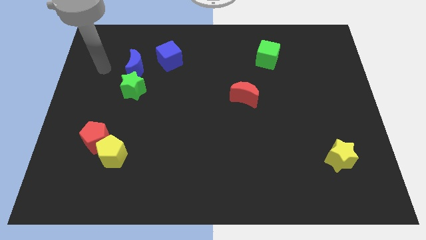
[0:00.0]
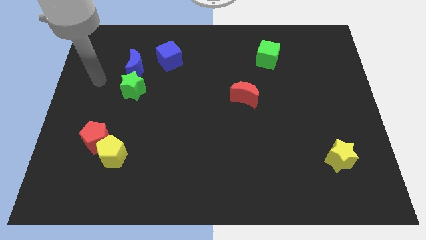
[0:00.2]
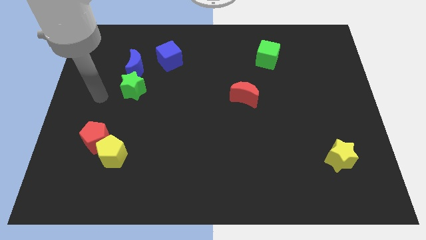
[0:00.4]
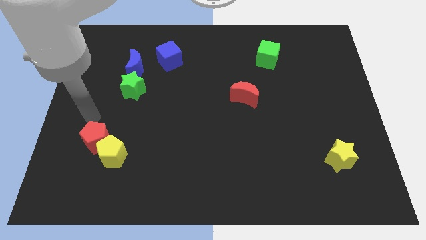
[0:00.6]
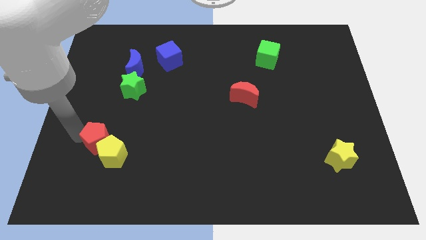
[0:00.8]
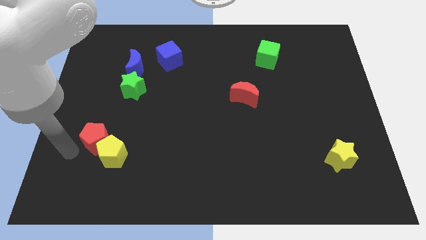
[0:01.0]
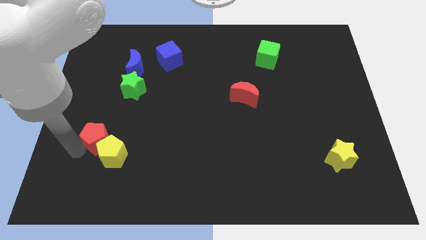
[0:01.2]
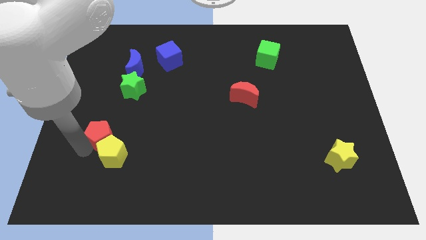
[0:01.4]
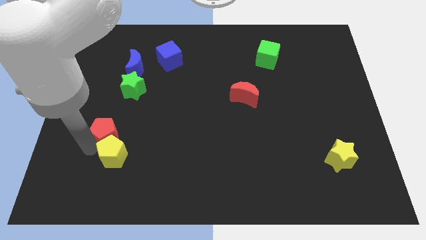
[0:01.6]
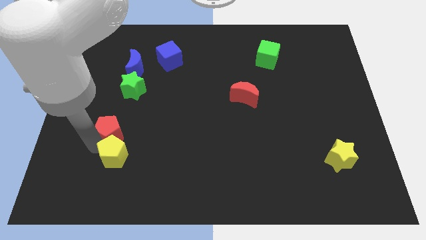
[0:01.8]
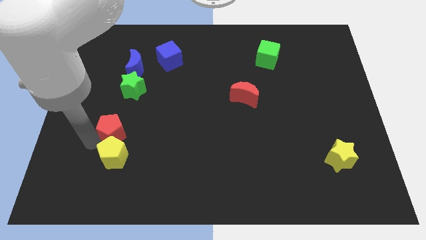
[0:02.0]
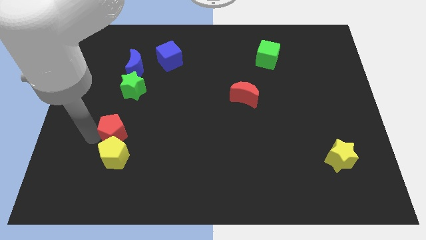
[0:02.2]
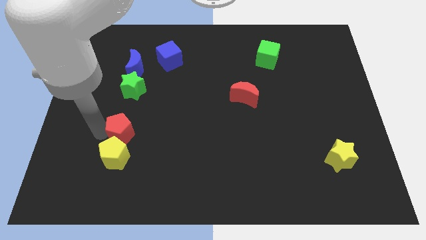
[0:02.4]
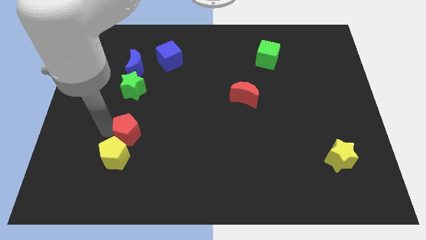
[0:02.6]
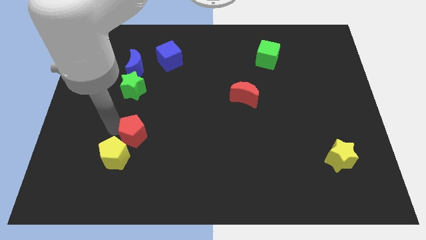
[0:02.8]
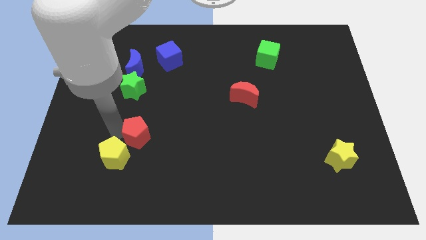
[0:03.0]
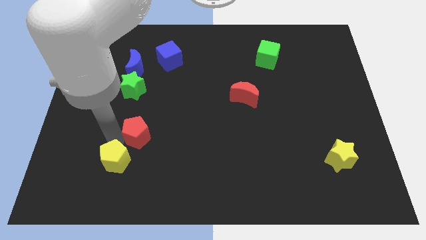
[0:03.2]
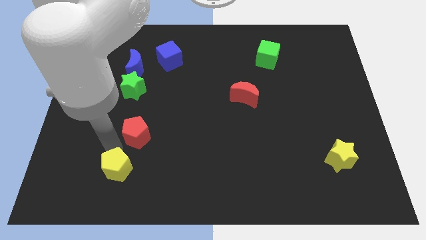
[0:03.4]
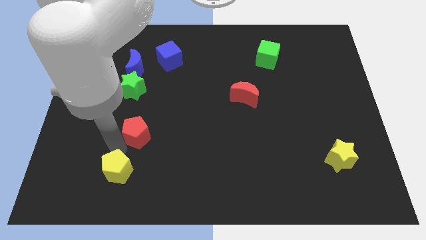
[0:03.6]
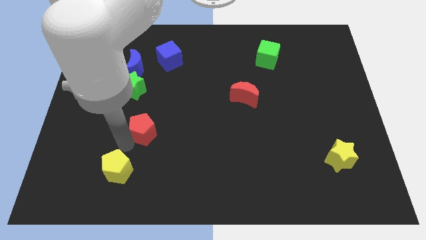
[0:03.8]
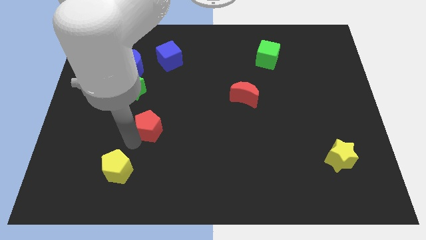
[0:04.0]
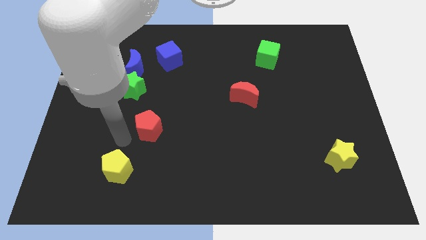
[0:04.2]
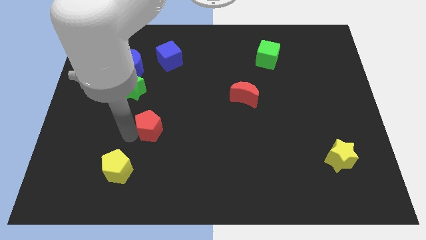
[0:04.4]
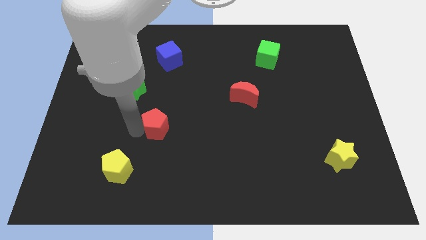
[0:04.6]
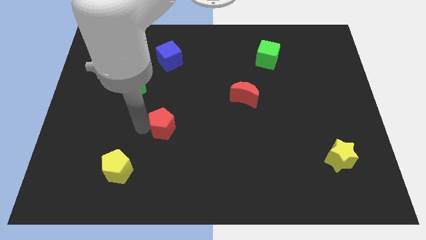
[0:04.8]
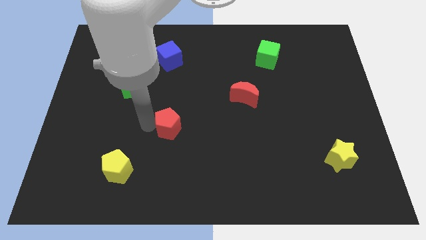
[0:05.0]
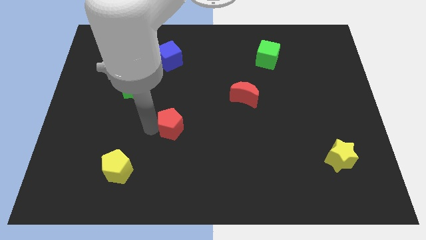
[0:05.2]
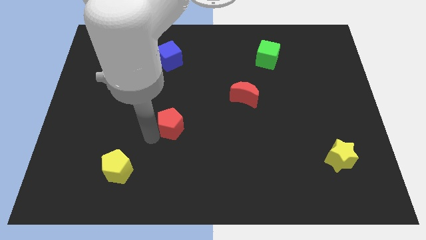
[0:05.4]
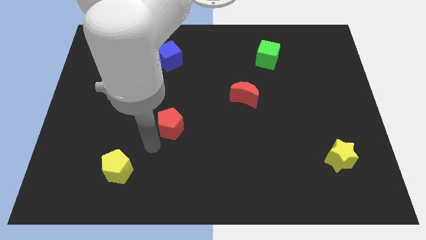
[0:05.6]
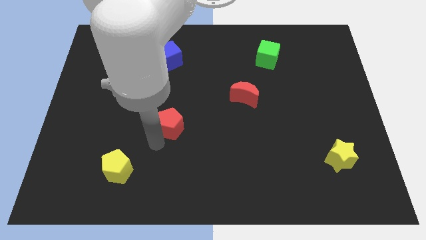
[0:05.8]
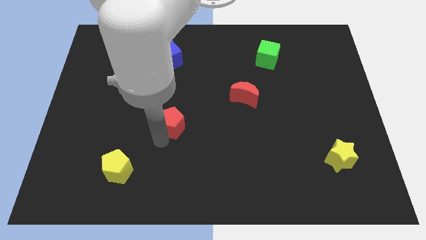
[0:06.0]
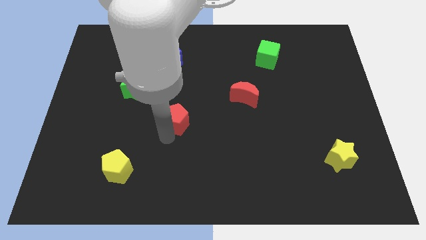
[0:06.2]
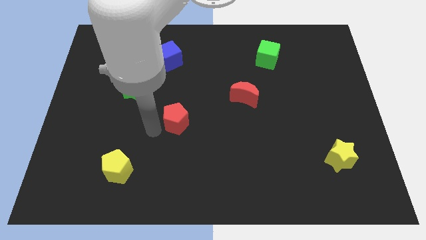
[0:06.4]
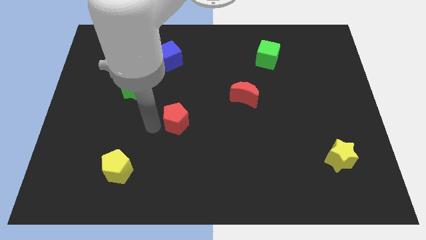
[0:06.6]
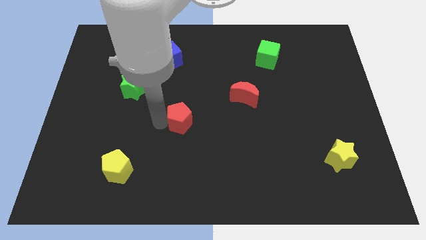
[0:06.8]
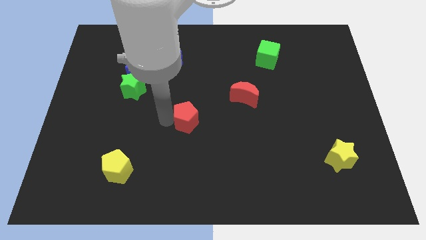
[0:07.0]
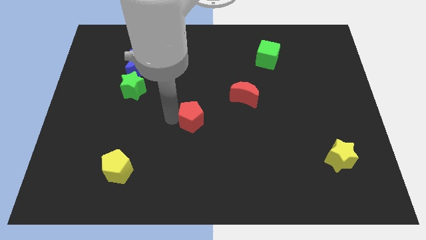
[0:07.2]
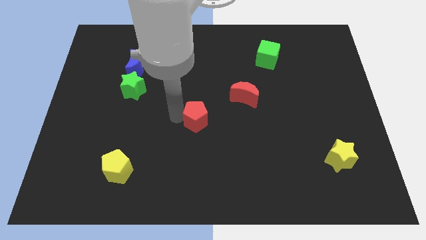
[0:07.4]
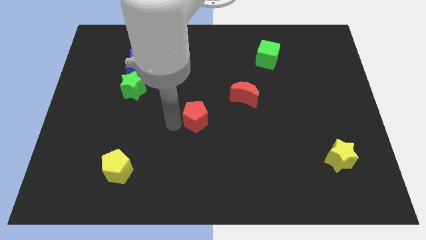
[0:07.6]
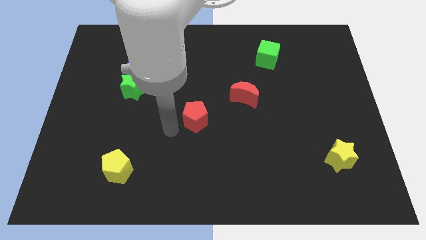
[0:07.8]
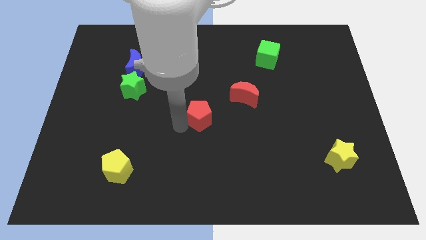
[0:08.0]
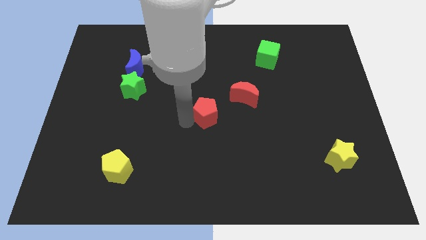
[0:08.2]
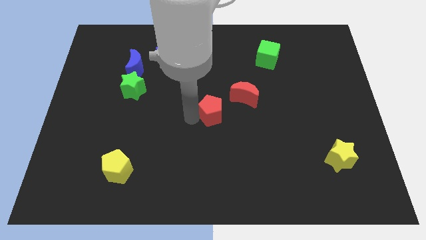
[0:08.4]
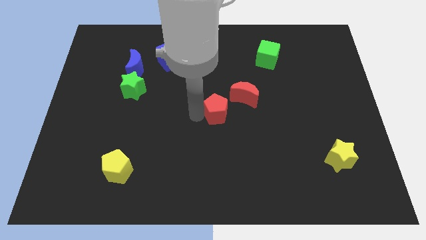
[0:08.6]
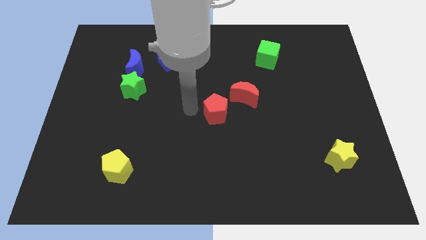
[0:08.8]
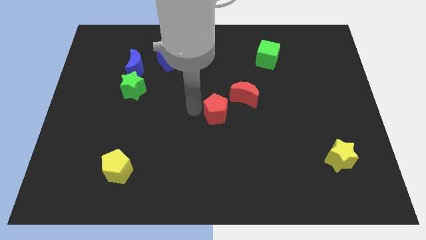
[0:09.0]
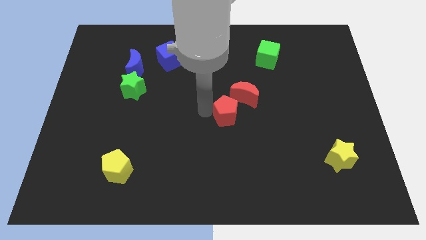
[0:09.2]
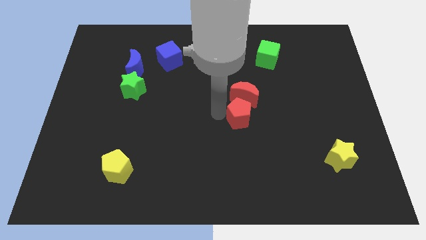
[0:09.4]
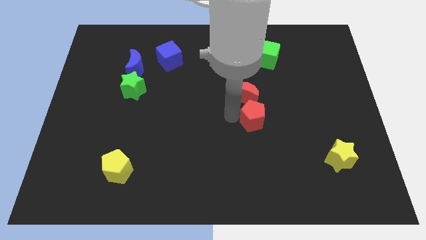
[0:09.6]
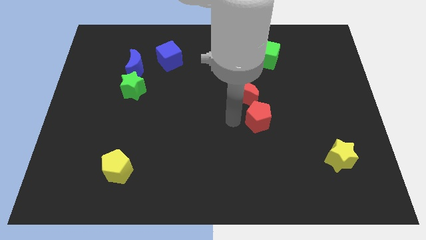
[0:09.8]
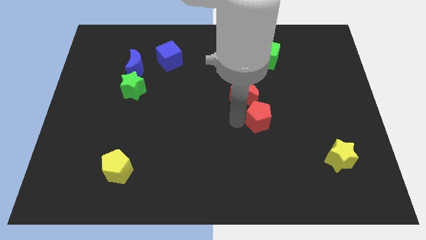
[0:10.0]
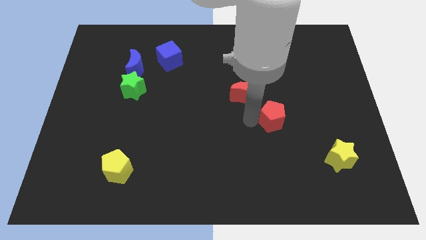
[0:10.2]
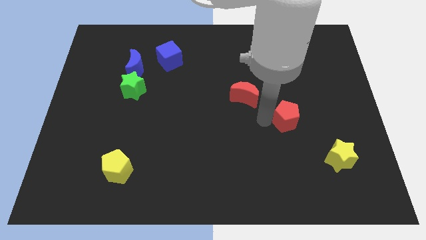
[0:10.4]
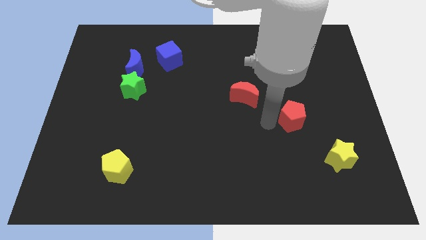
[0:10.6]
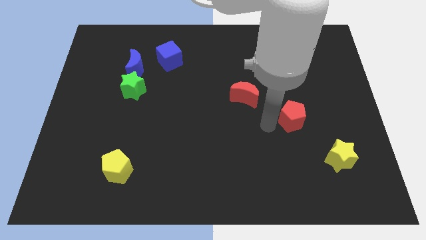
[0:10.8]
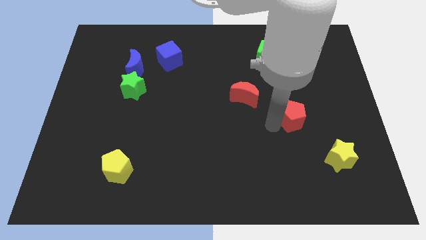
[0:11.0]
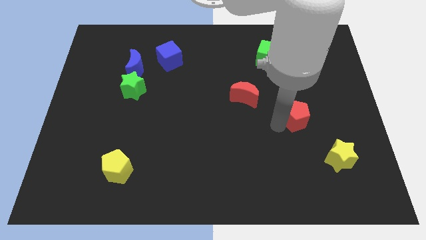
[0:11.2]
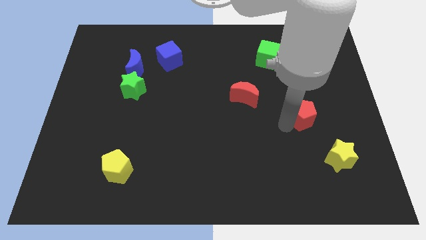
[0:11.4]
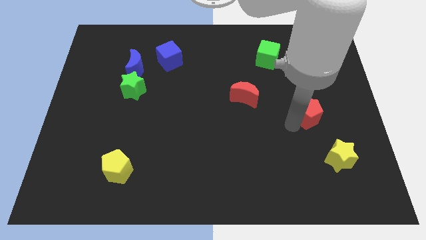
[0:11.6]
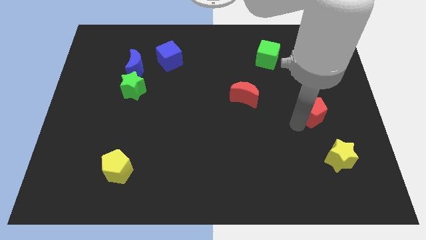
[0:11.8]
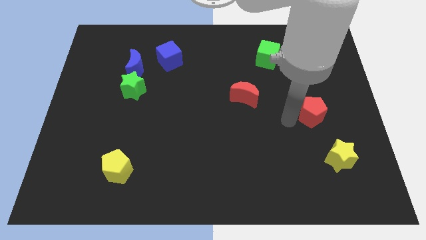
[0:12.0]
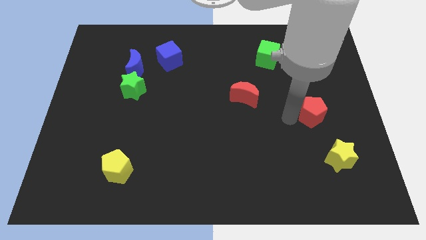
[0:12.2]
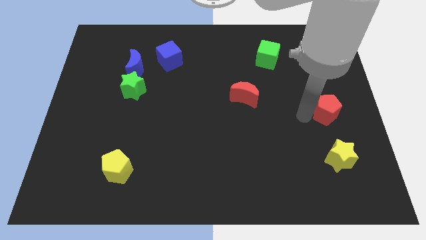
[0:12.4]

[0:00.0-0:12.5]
slide the red pentagon to the right side of the board

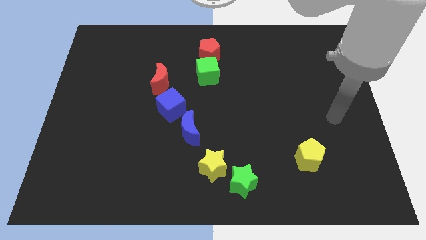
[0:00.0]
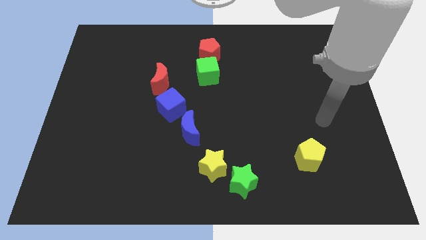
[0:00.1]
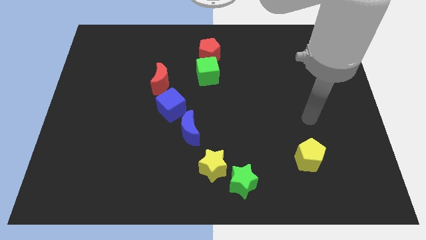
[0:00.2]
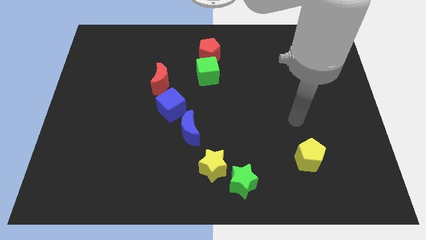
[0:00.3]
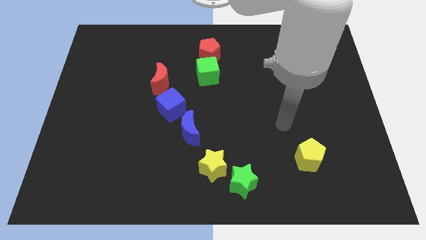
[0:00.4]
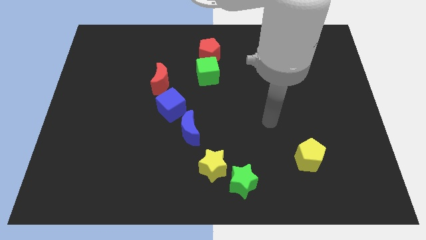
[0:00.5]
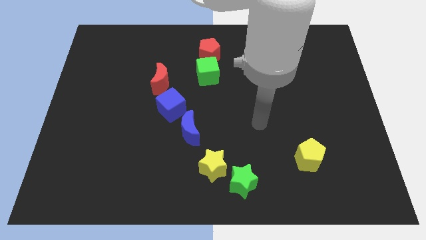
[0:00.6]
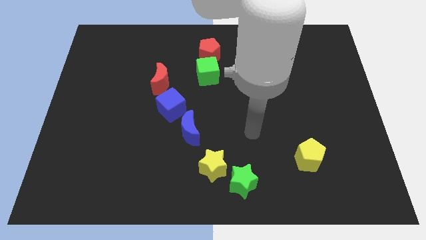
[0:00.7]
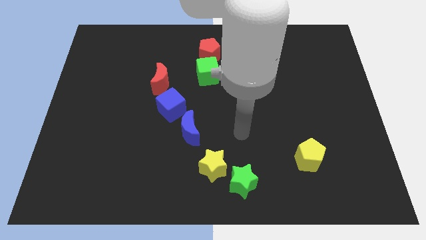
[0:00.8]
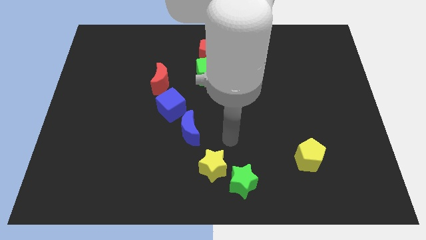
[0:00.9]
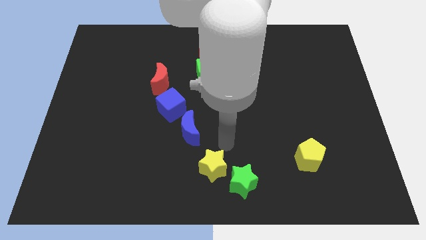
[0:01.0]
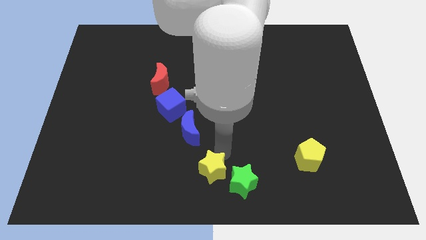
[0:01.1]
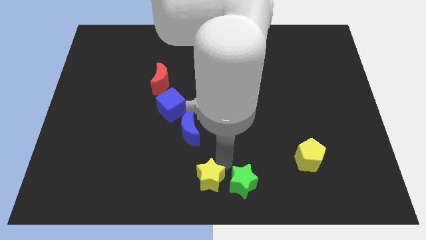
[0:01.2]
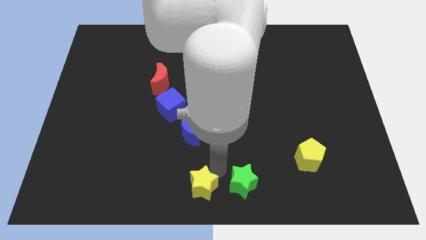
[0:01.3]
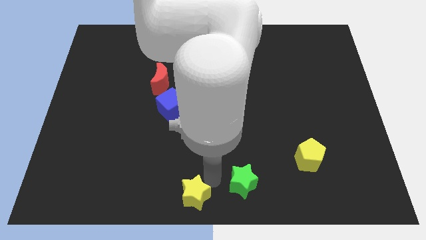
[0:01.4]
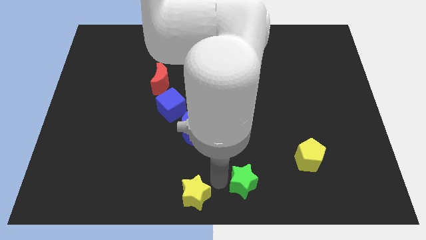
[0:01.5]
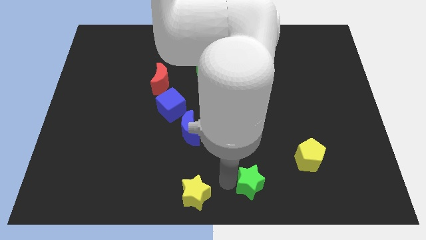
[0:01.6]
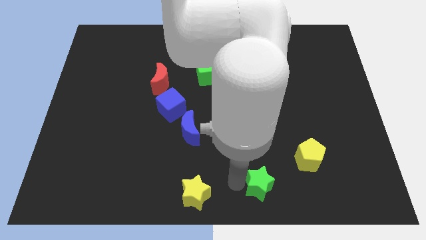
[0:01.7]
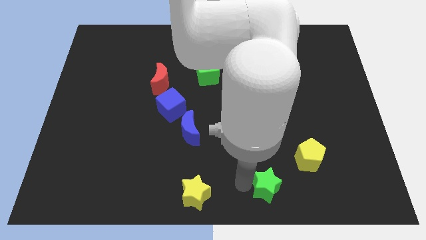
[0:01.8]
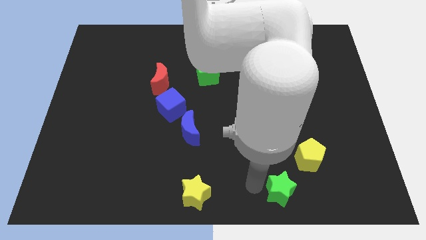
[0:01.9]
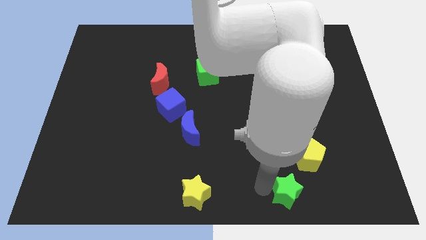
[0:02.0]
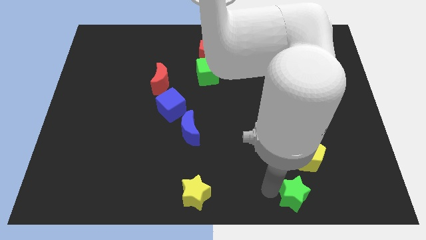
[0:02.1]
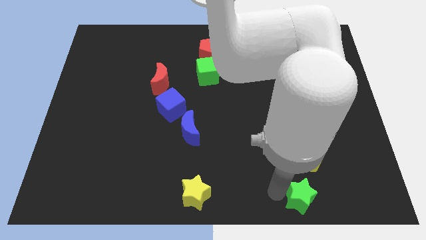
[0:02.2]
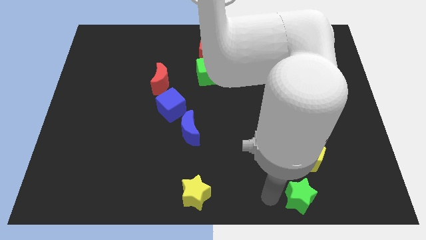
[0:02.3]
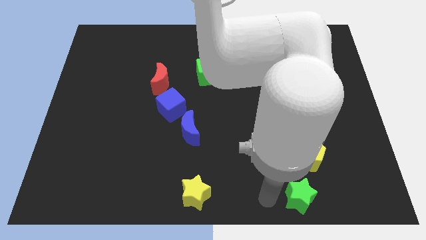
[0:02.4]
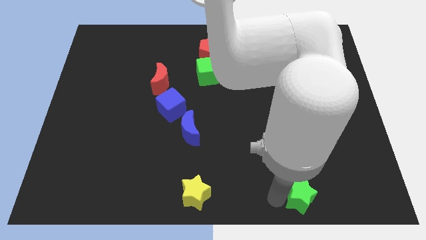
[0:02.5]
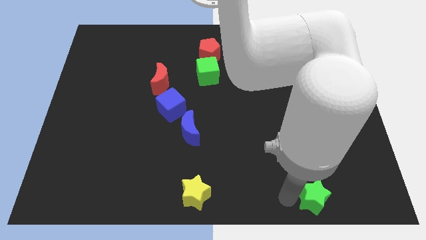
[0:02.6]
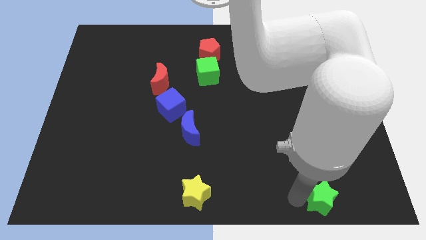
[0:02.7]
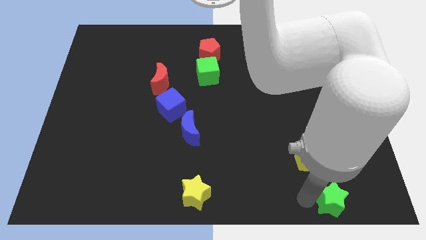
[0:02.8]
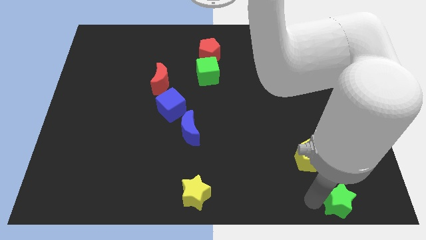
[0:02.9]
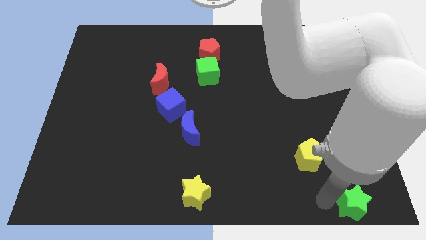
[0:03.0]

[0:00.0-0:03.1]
push the green star to the bottom right
